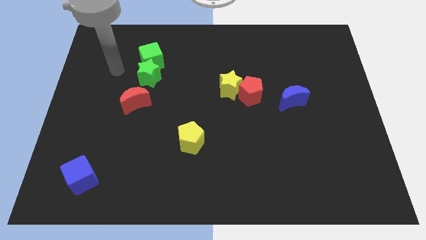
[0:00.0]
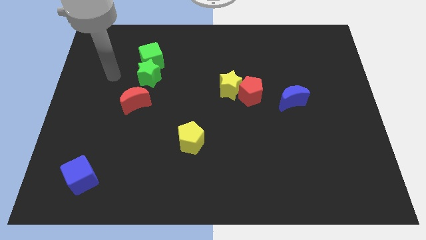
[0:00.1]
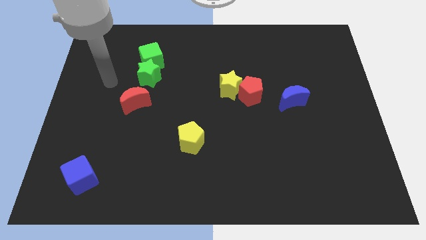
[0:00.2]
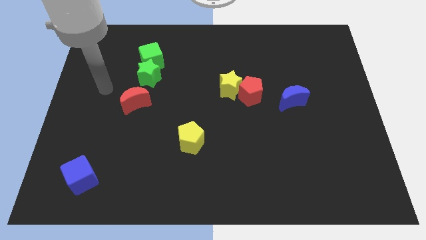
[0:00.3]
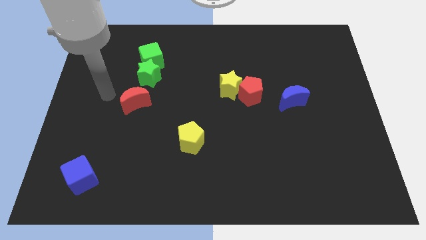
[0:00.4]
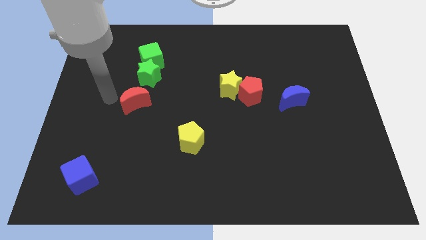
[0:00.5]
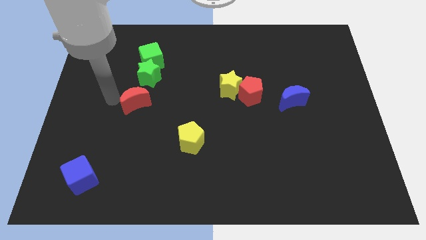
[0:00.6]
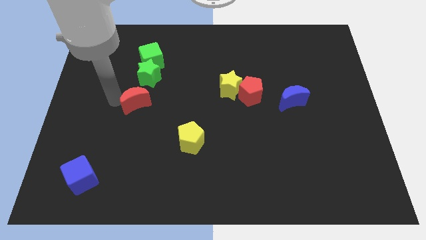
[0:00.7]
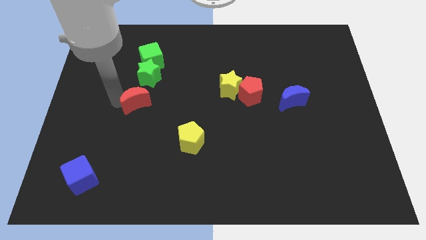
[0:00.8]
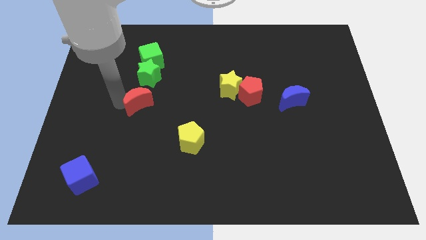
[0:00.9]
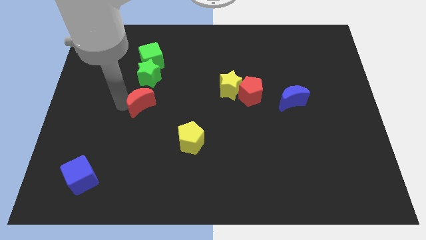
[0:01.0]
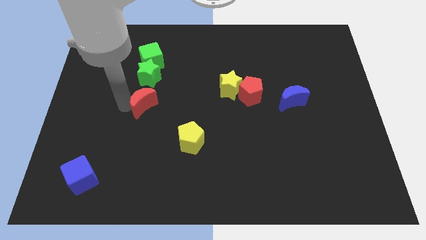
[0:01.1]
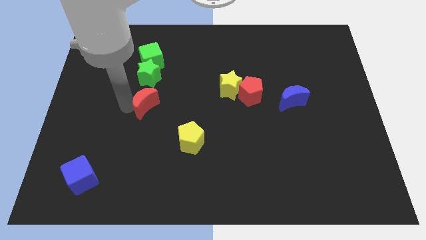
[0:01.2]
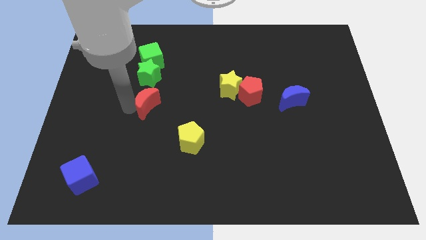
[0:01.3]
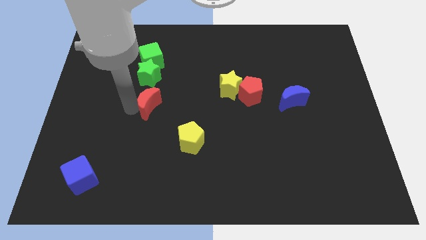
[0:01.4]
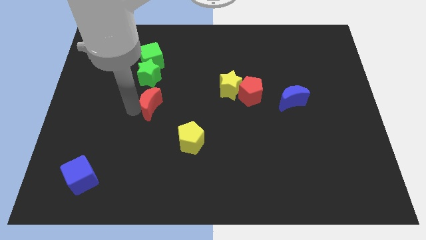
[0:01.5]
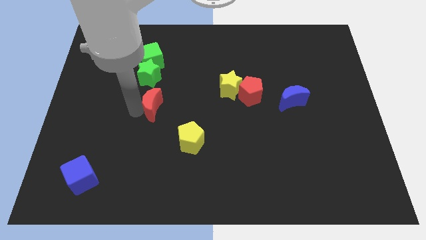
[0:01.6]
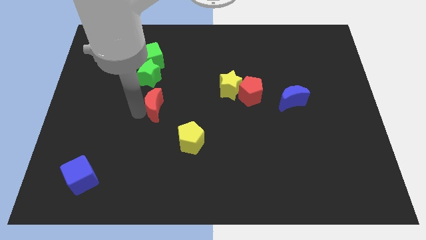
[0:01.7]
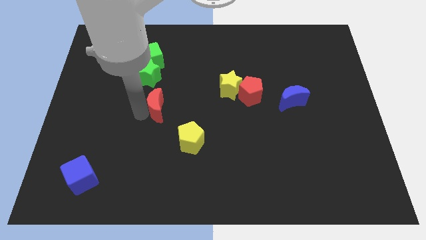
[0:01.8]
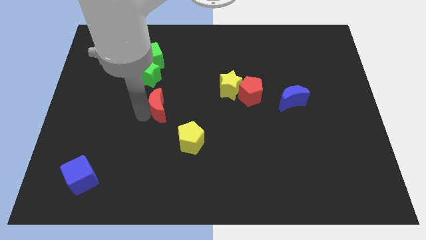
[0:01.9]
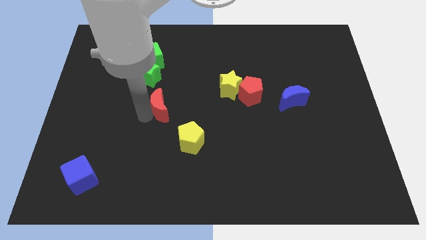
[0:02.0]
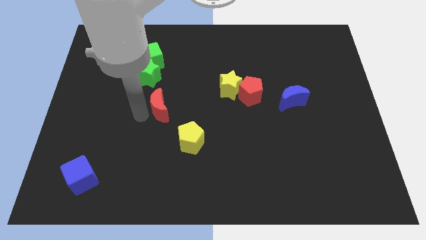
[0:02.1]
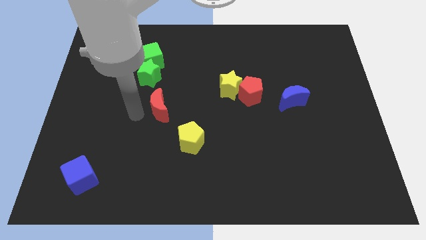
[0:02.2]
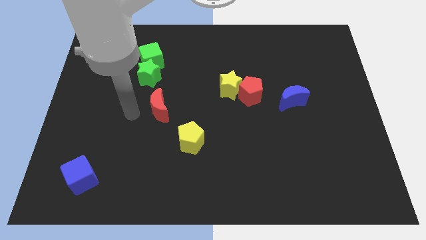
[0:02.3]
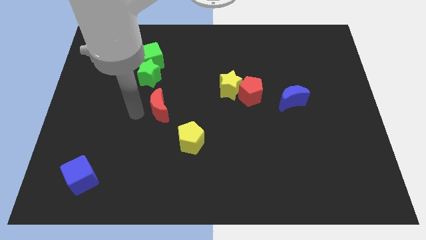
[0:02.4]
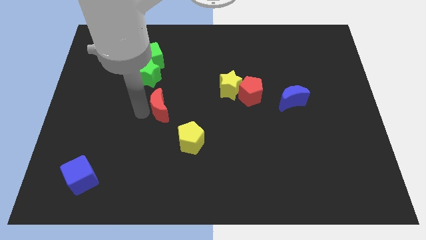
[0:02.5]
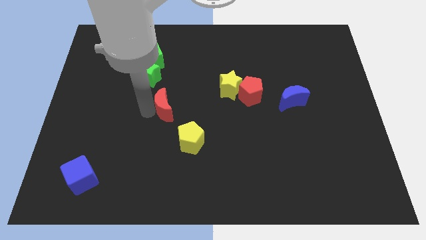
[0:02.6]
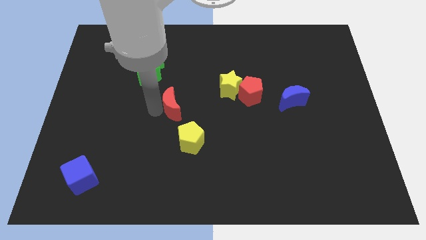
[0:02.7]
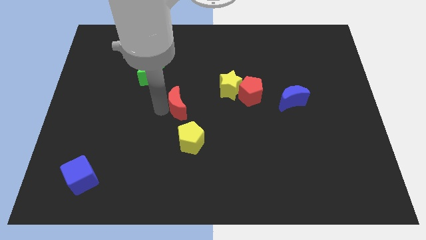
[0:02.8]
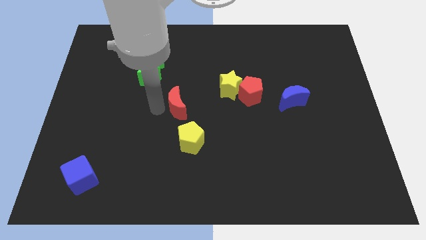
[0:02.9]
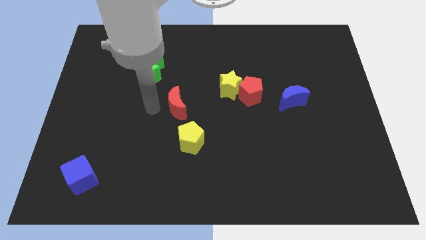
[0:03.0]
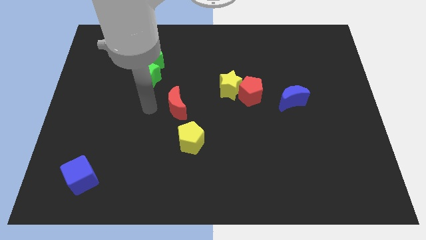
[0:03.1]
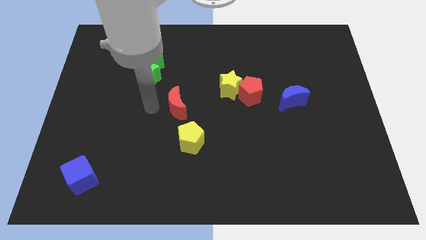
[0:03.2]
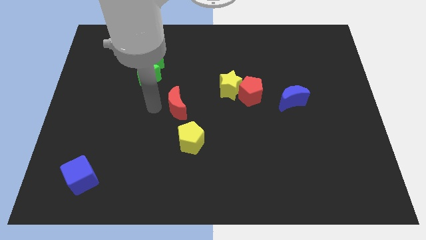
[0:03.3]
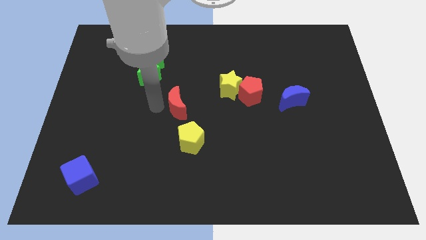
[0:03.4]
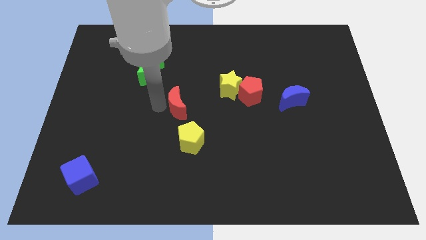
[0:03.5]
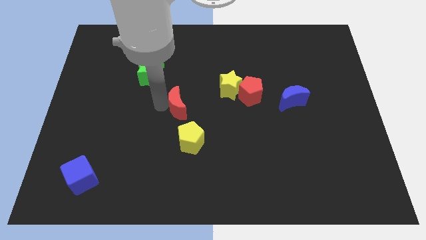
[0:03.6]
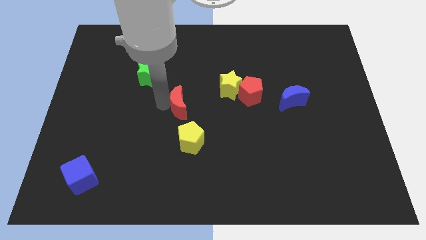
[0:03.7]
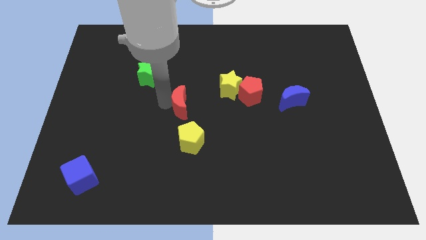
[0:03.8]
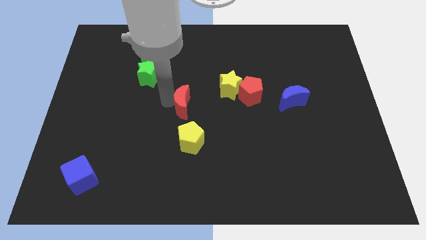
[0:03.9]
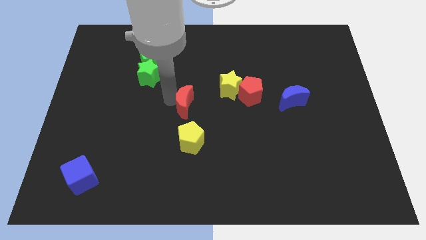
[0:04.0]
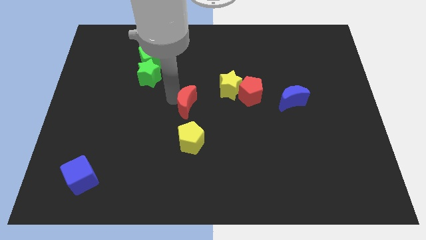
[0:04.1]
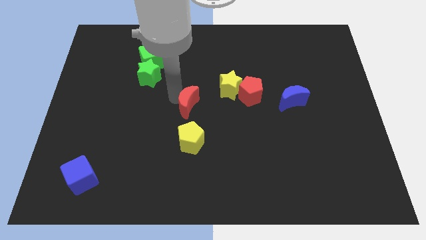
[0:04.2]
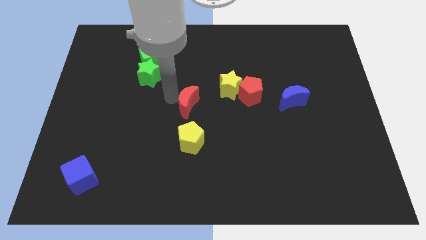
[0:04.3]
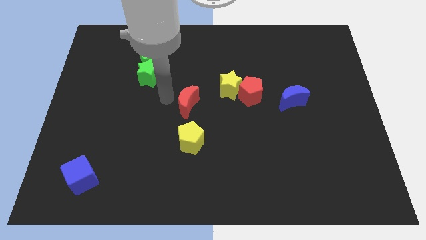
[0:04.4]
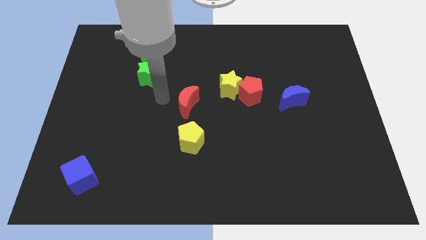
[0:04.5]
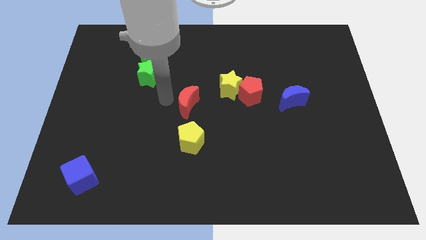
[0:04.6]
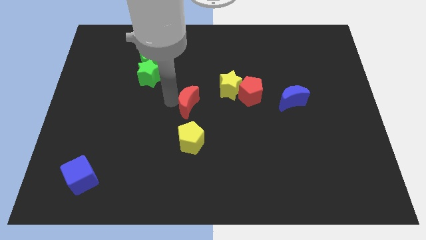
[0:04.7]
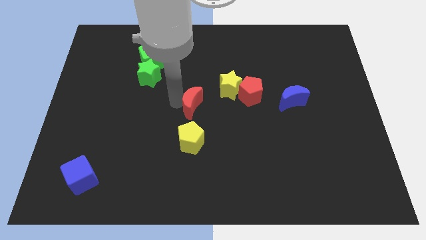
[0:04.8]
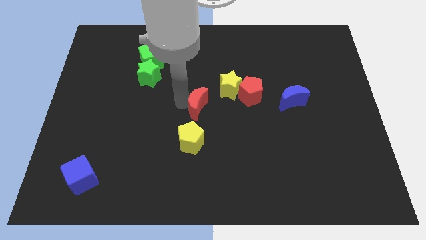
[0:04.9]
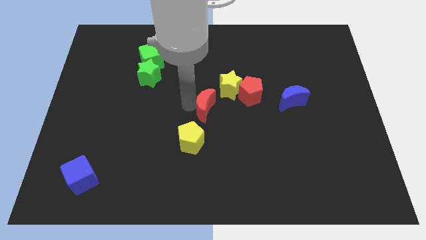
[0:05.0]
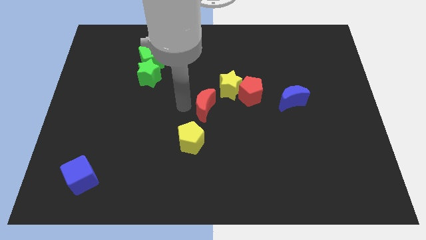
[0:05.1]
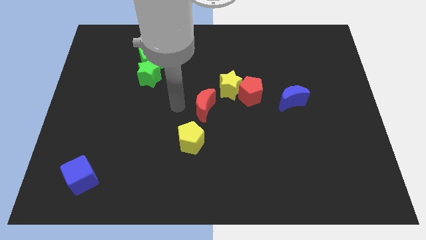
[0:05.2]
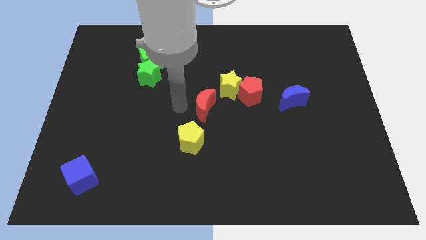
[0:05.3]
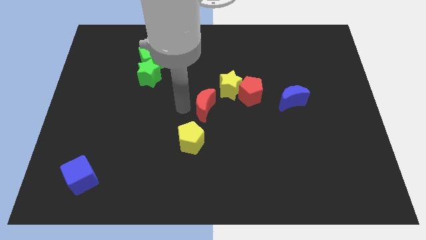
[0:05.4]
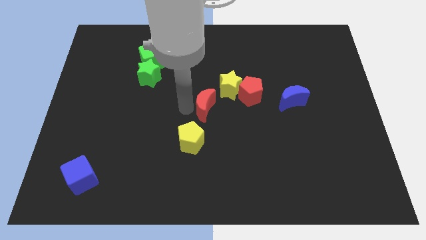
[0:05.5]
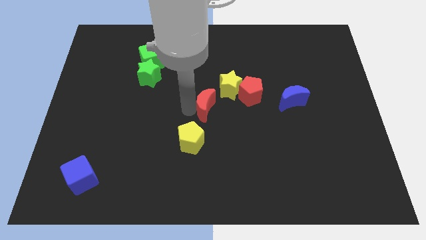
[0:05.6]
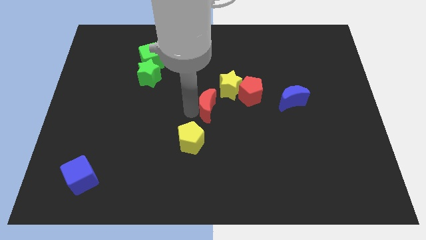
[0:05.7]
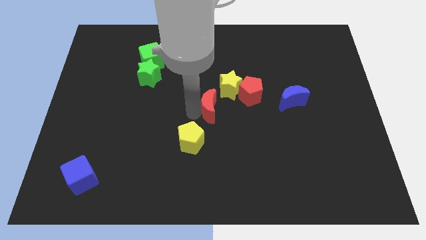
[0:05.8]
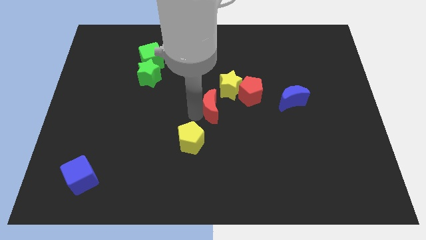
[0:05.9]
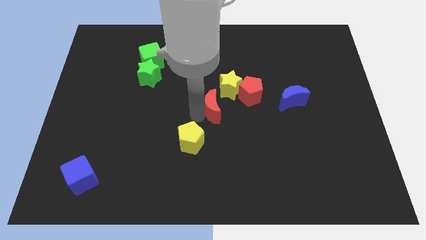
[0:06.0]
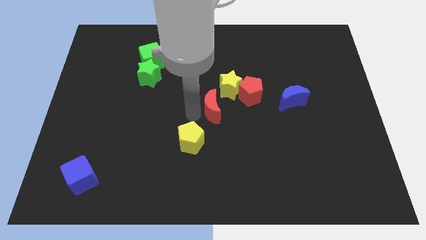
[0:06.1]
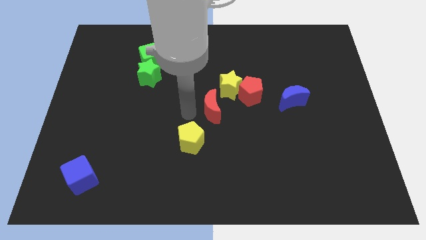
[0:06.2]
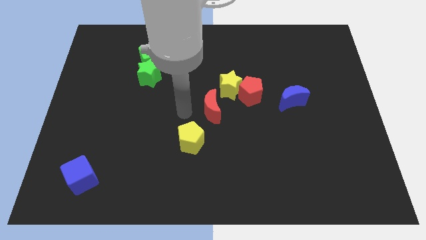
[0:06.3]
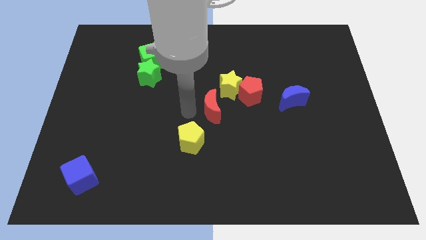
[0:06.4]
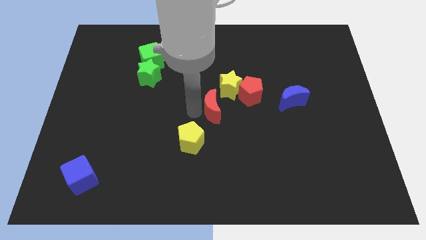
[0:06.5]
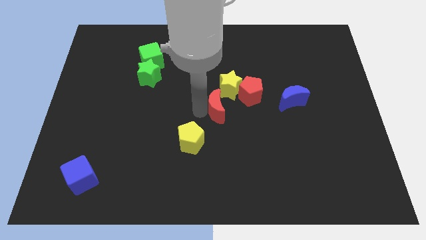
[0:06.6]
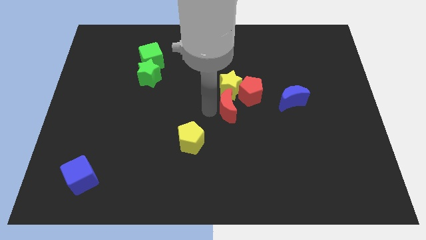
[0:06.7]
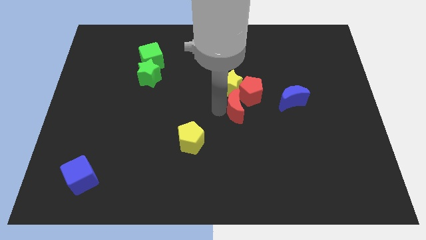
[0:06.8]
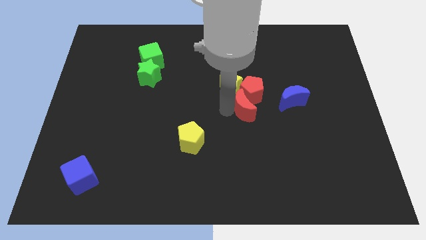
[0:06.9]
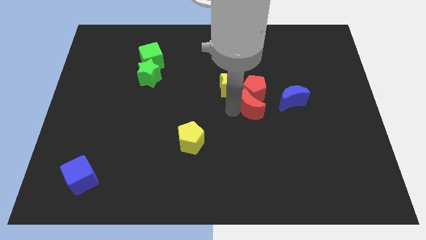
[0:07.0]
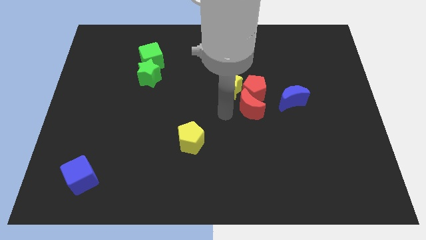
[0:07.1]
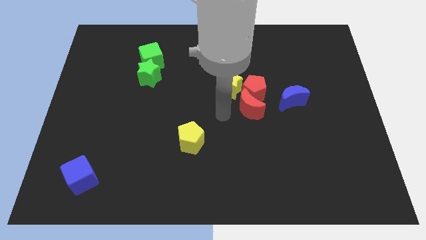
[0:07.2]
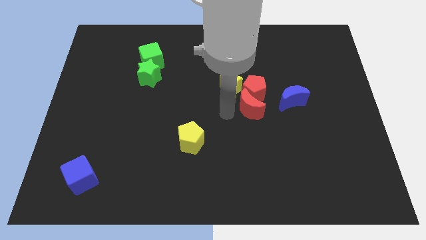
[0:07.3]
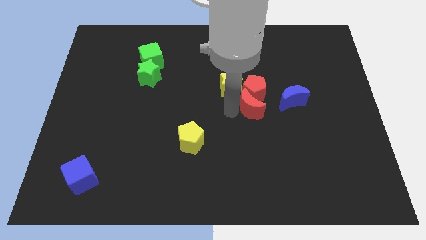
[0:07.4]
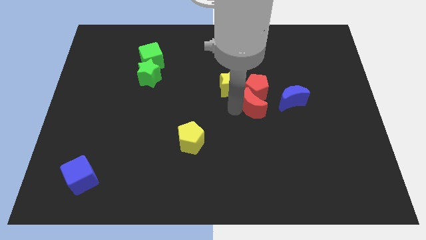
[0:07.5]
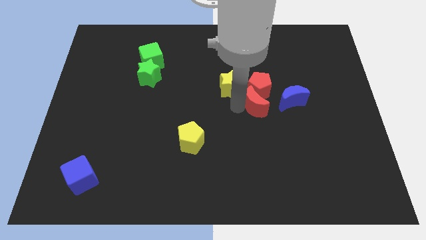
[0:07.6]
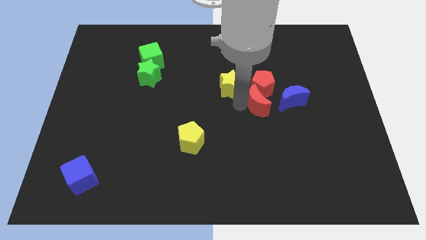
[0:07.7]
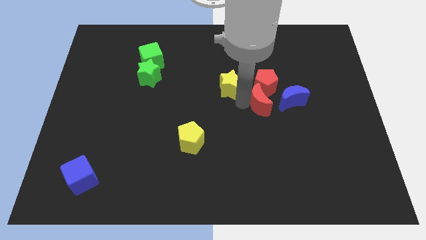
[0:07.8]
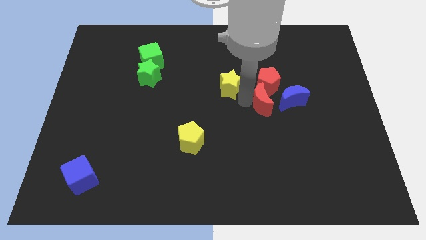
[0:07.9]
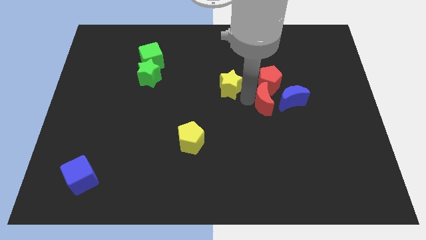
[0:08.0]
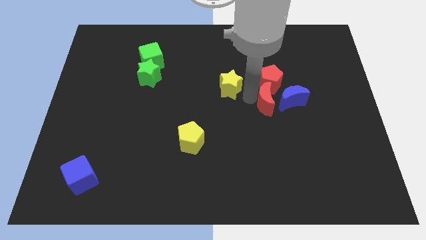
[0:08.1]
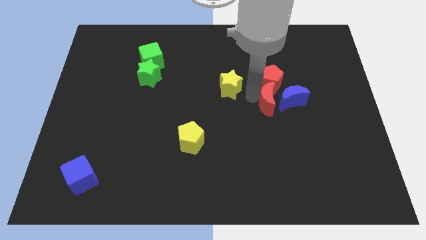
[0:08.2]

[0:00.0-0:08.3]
push the red moon towards the blue moon
